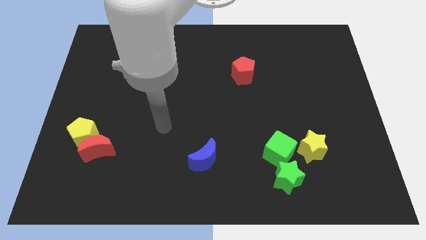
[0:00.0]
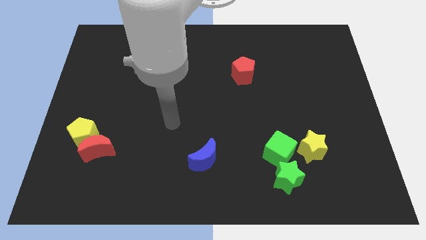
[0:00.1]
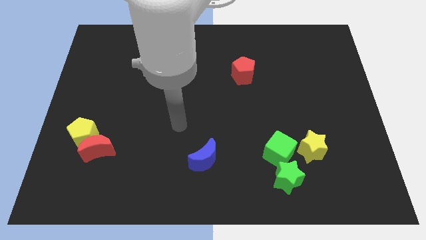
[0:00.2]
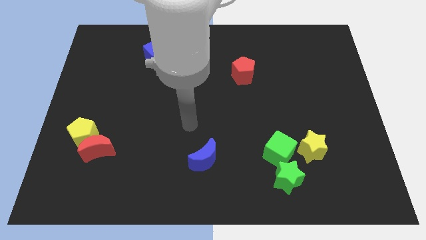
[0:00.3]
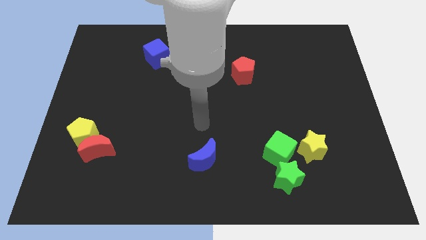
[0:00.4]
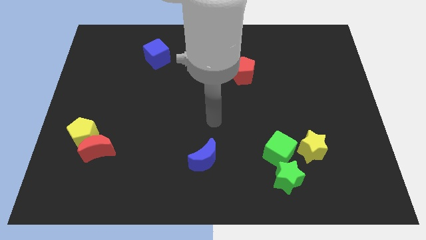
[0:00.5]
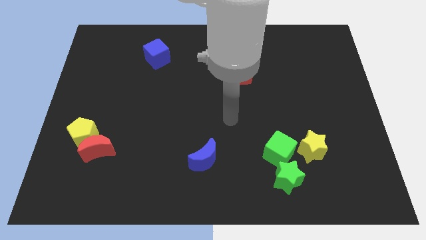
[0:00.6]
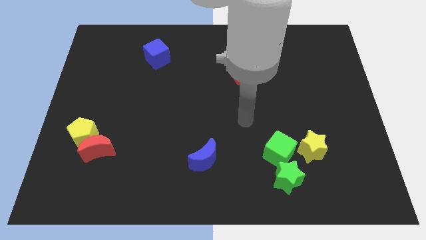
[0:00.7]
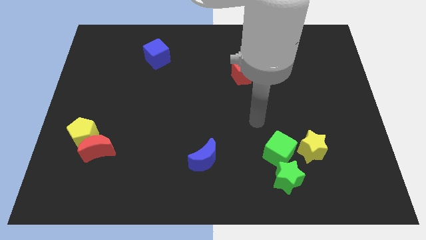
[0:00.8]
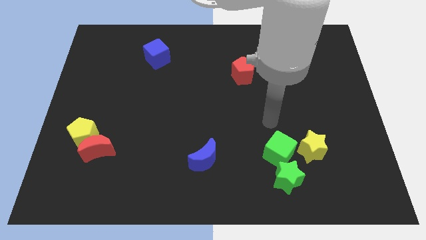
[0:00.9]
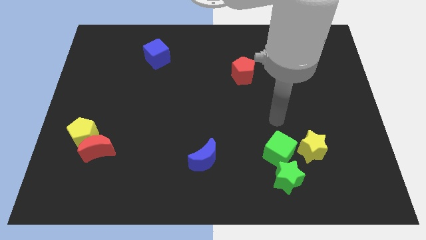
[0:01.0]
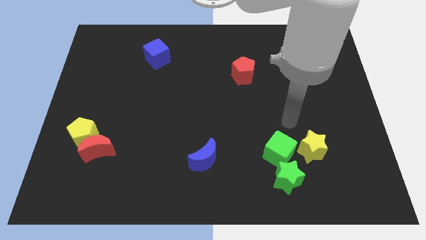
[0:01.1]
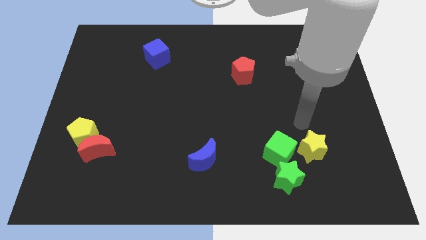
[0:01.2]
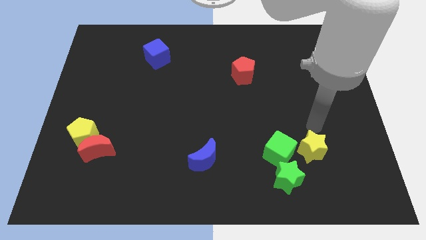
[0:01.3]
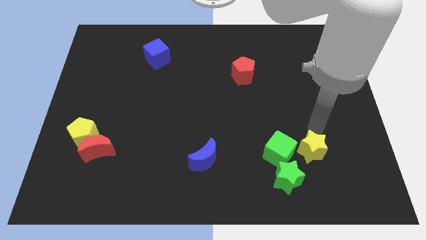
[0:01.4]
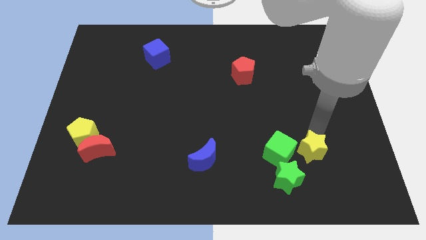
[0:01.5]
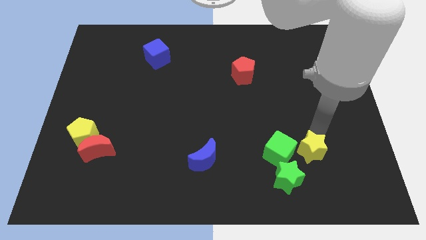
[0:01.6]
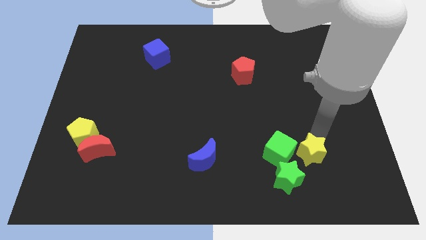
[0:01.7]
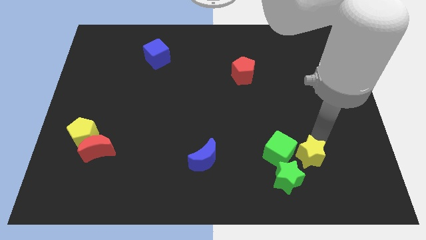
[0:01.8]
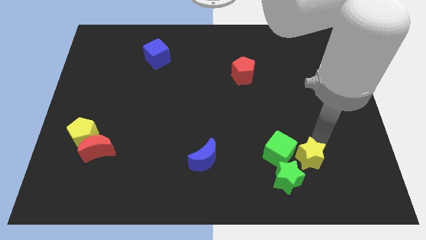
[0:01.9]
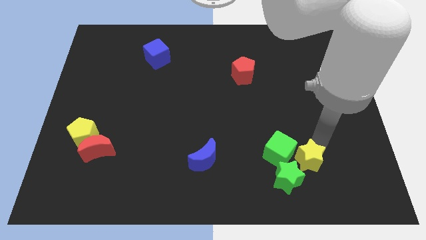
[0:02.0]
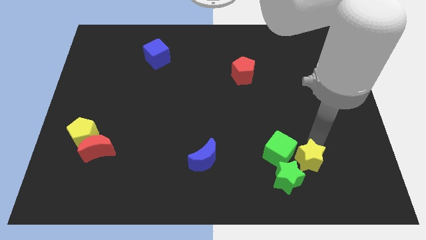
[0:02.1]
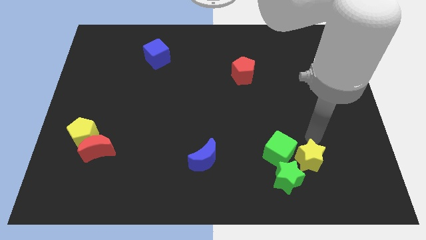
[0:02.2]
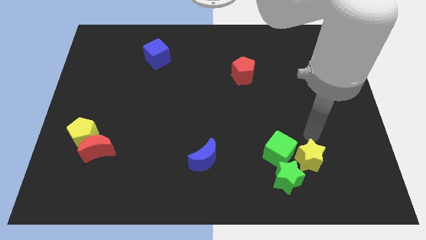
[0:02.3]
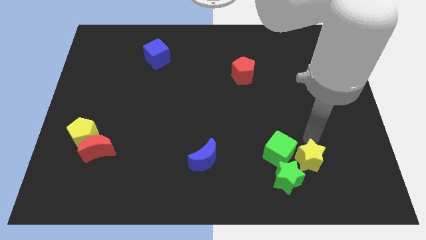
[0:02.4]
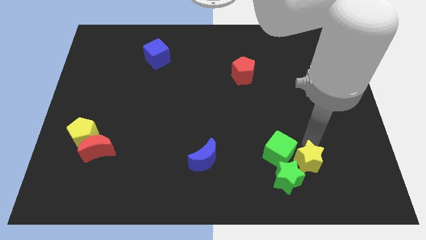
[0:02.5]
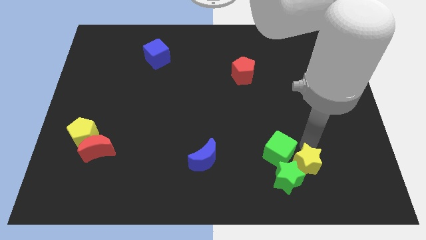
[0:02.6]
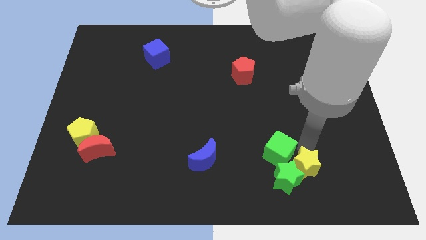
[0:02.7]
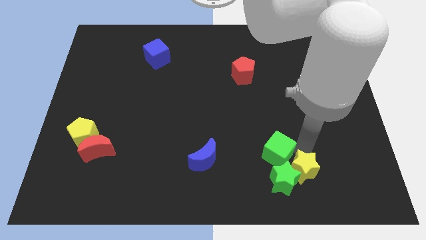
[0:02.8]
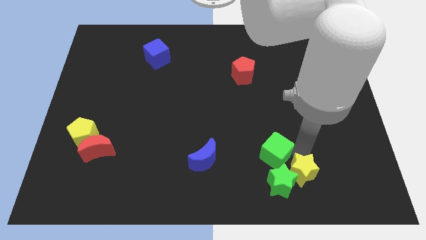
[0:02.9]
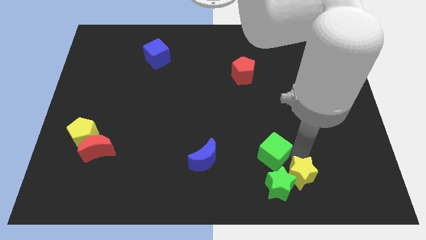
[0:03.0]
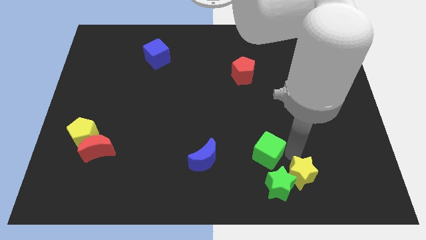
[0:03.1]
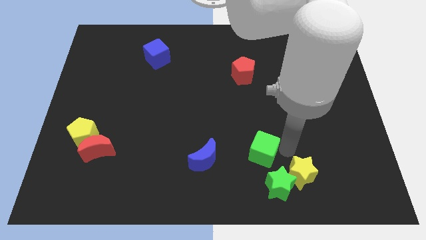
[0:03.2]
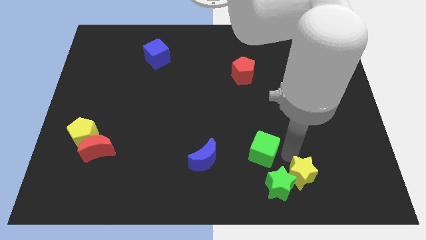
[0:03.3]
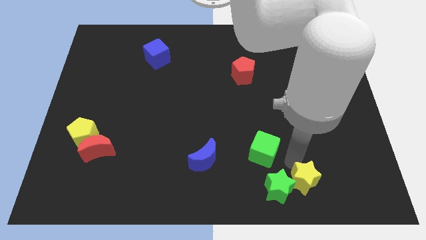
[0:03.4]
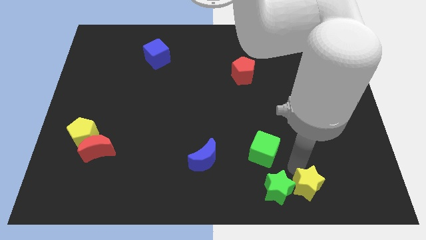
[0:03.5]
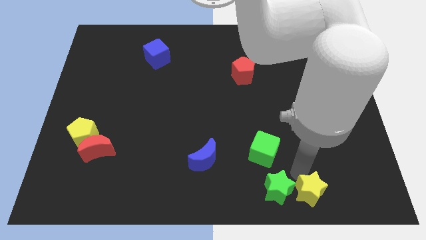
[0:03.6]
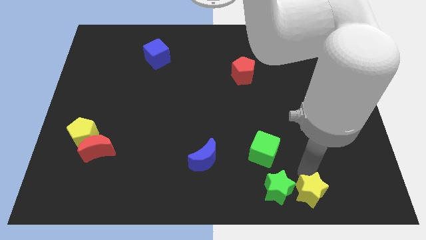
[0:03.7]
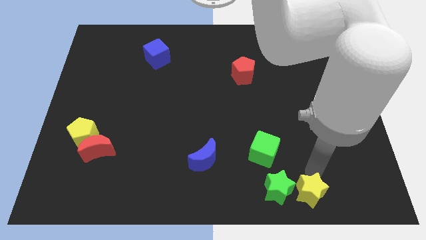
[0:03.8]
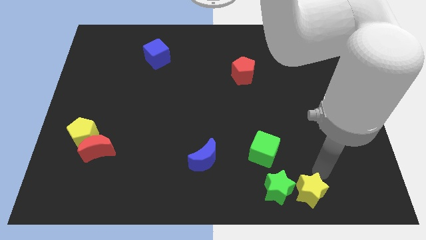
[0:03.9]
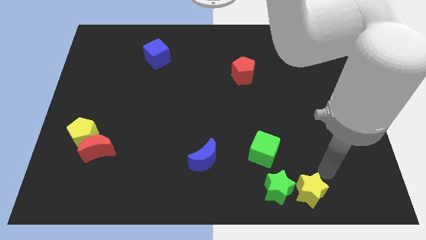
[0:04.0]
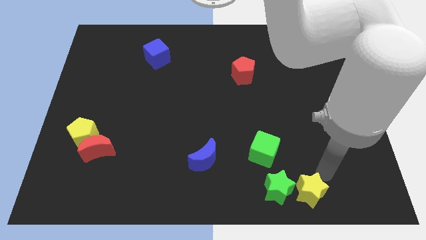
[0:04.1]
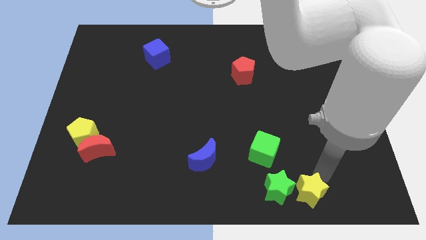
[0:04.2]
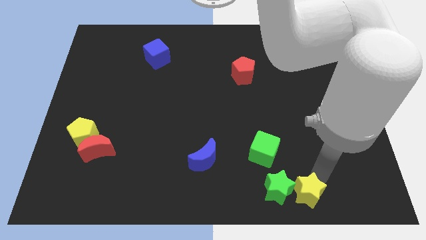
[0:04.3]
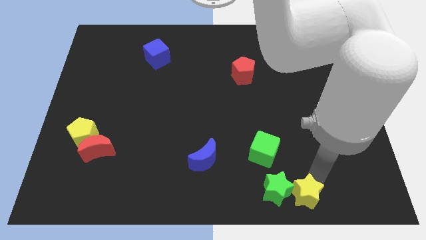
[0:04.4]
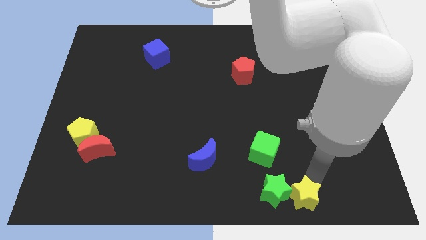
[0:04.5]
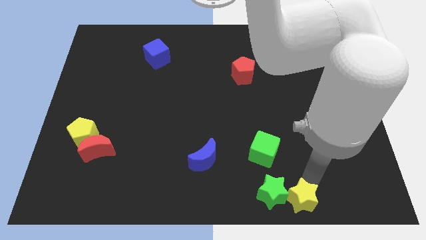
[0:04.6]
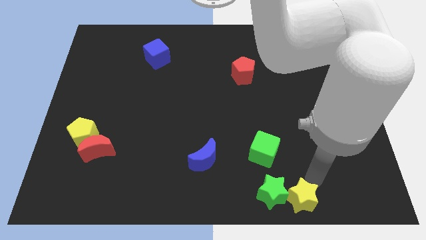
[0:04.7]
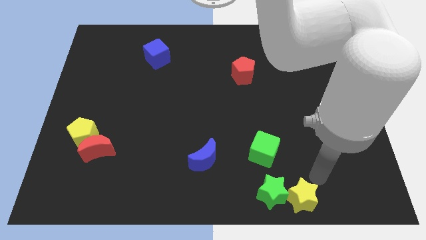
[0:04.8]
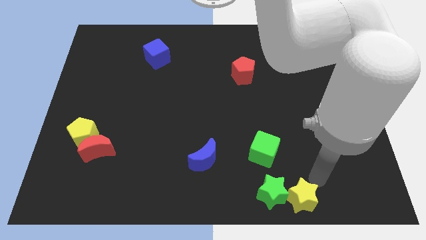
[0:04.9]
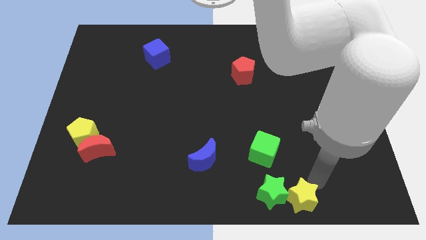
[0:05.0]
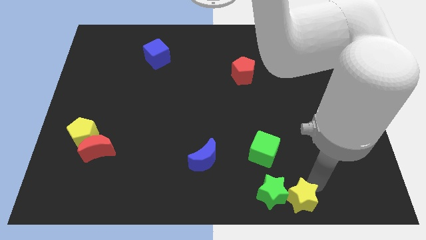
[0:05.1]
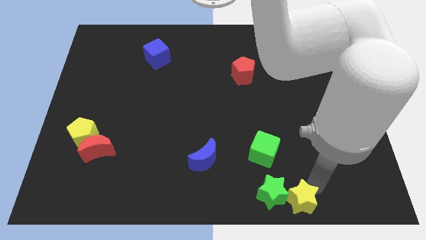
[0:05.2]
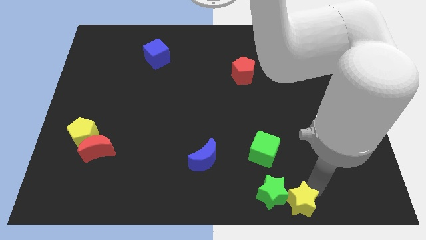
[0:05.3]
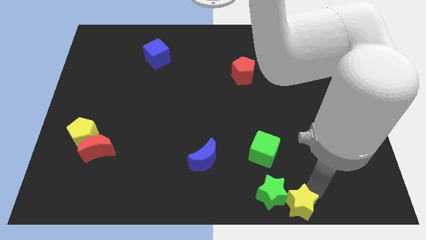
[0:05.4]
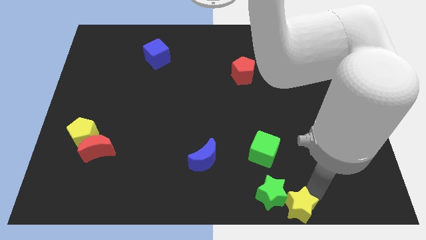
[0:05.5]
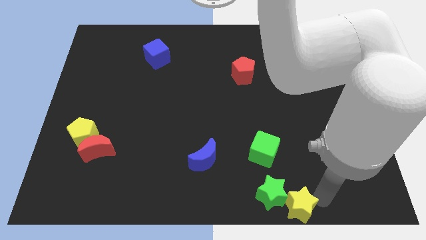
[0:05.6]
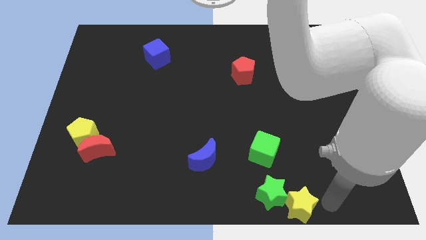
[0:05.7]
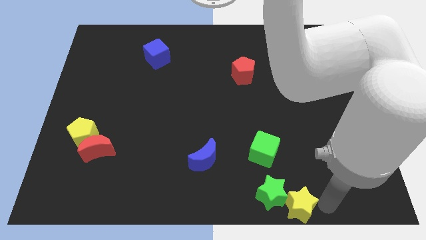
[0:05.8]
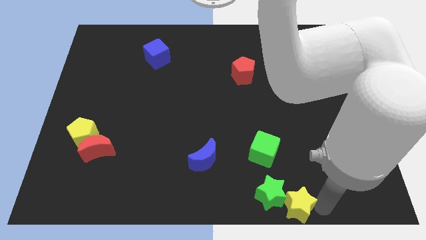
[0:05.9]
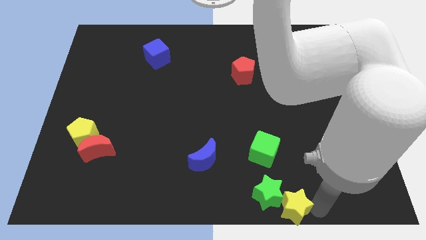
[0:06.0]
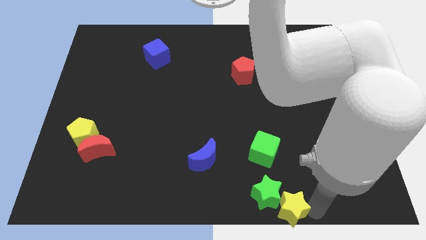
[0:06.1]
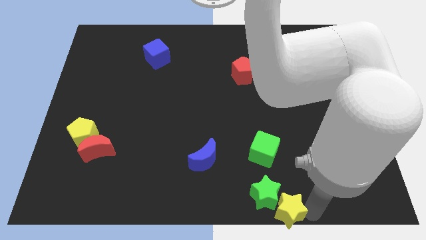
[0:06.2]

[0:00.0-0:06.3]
put the yellow star to the bottom side

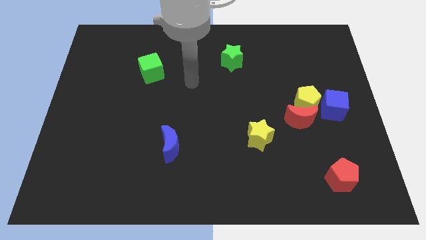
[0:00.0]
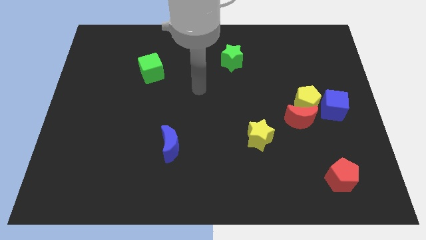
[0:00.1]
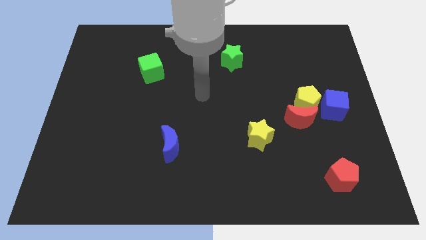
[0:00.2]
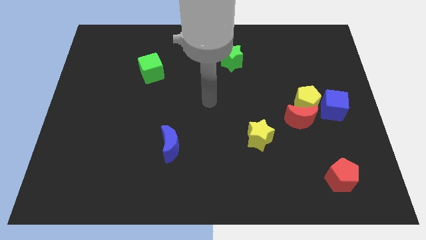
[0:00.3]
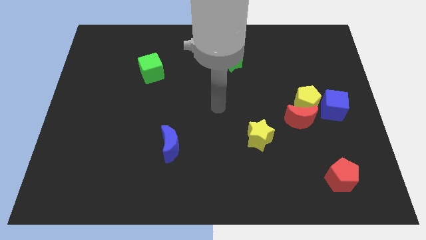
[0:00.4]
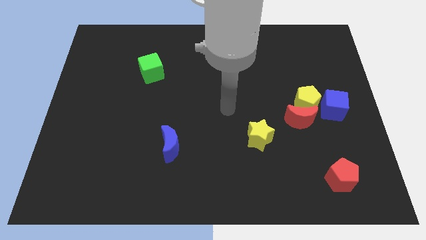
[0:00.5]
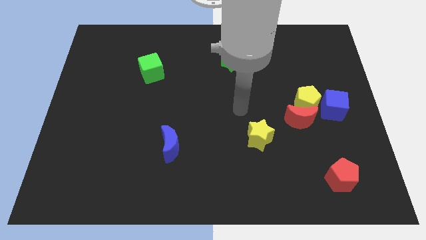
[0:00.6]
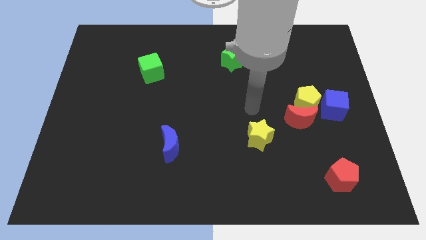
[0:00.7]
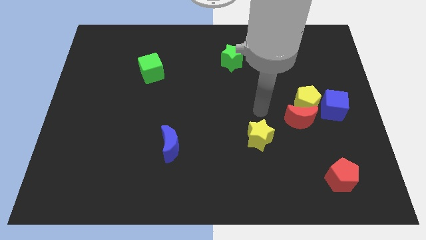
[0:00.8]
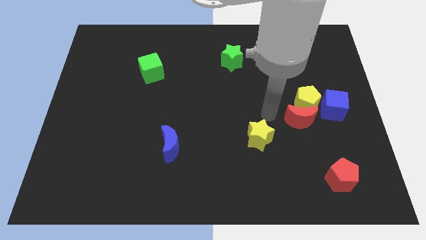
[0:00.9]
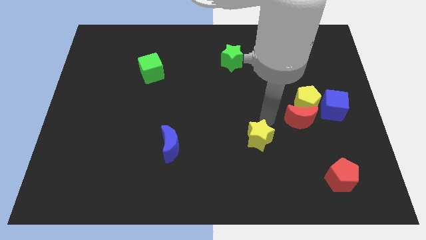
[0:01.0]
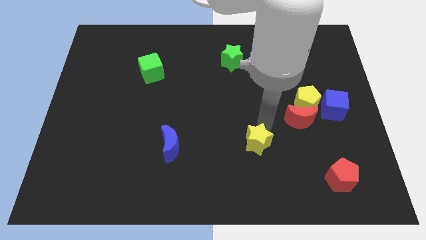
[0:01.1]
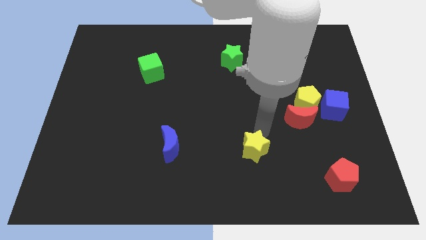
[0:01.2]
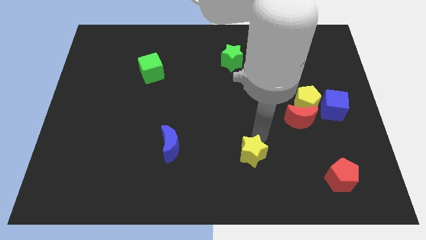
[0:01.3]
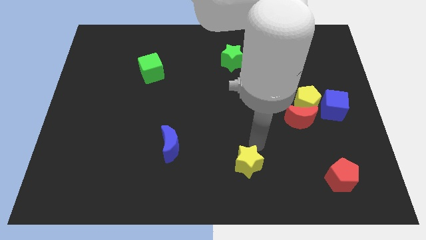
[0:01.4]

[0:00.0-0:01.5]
put the yellow star to the bottom
